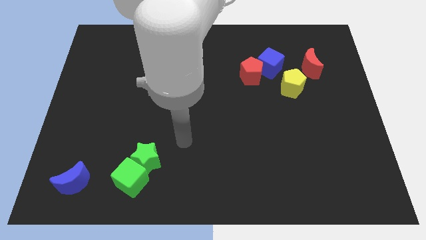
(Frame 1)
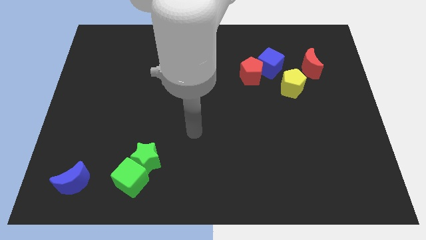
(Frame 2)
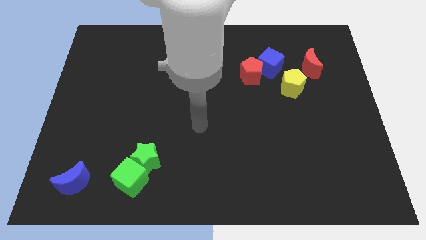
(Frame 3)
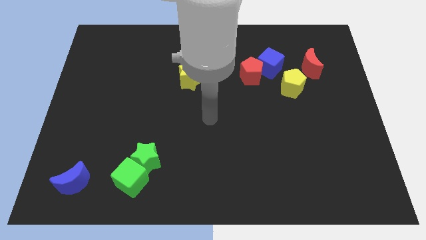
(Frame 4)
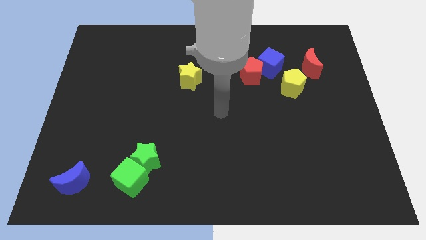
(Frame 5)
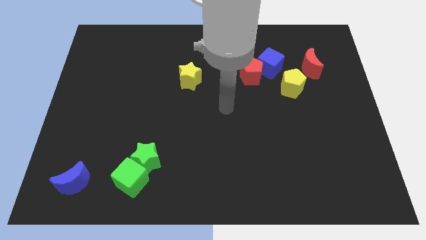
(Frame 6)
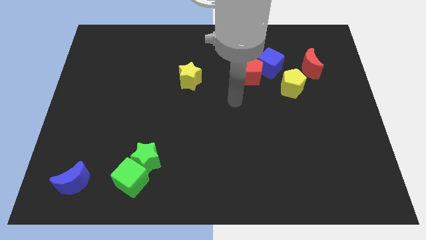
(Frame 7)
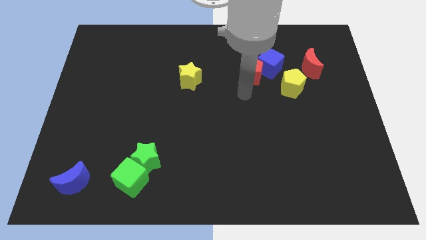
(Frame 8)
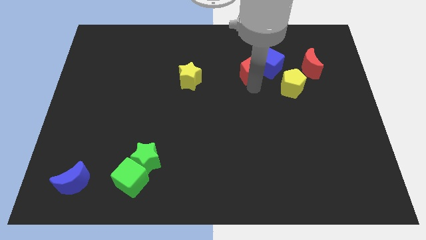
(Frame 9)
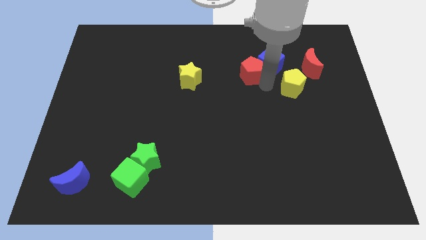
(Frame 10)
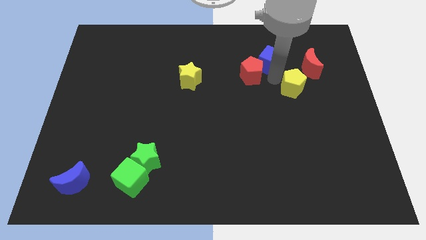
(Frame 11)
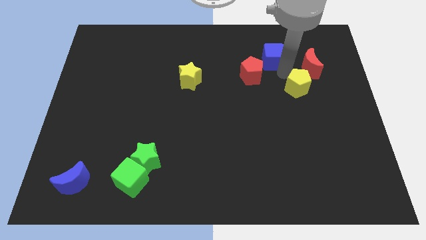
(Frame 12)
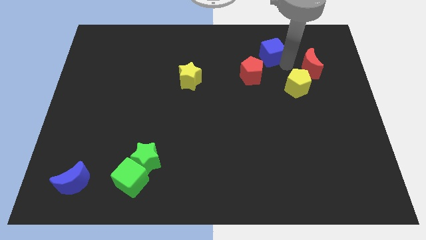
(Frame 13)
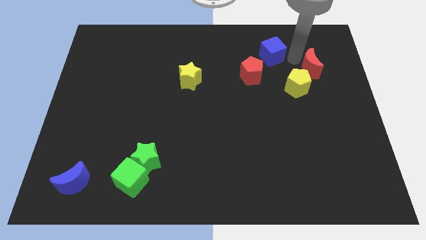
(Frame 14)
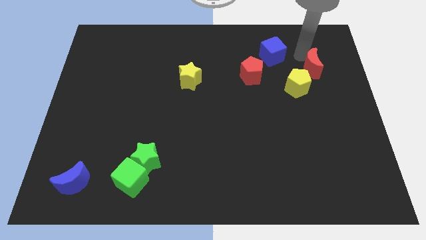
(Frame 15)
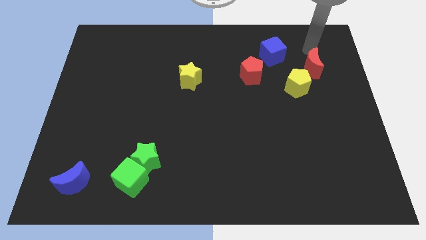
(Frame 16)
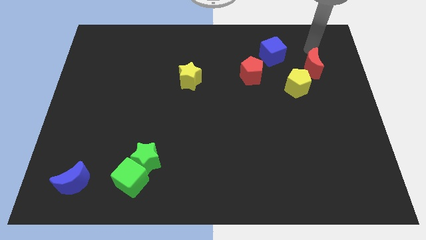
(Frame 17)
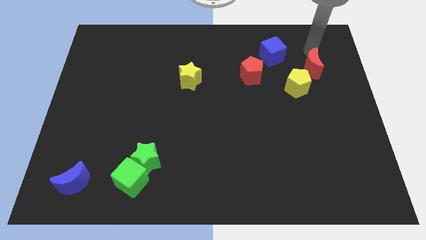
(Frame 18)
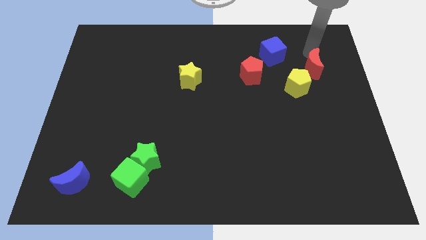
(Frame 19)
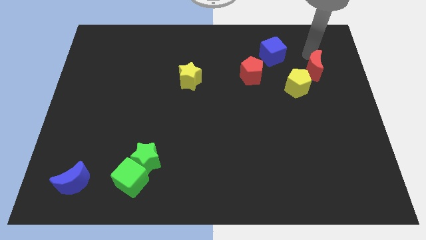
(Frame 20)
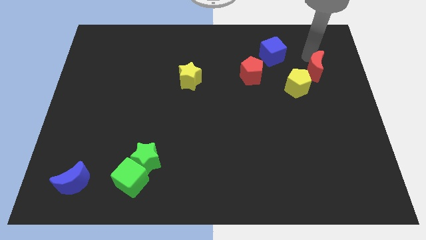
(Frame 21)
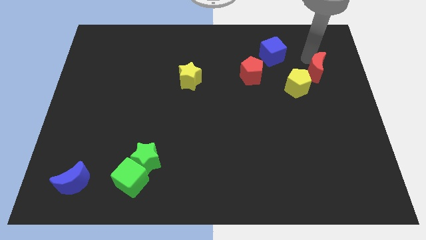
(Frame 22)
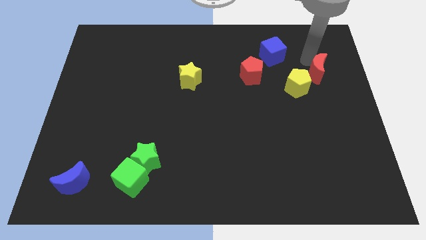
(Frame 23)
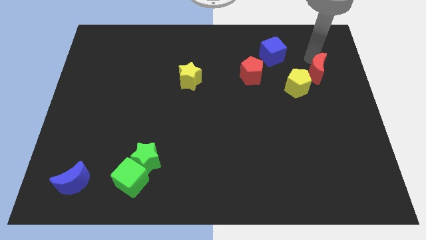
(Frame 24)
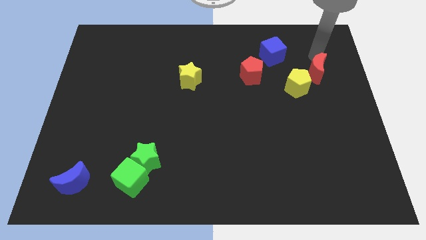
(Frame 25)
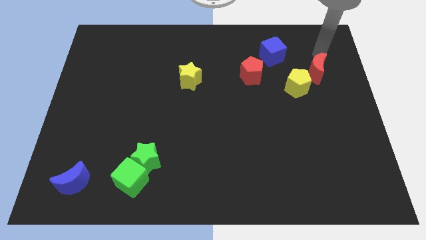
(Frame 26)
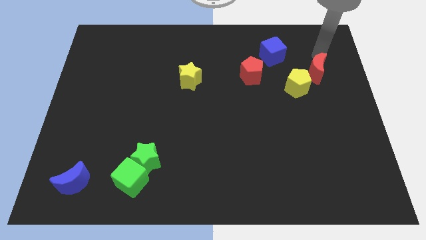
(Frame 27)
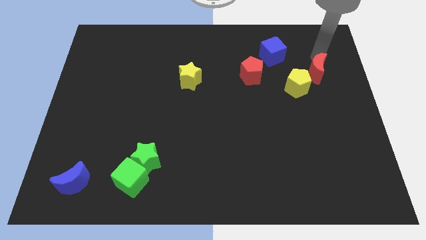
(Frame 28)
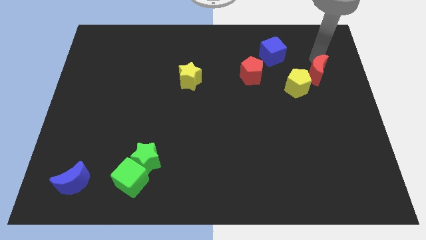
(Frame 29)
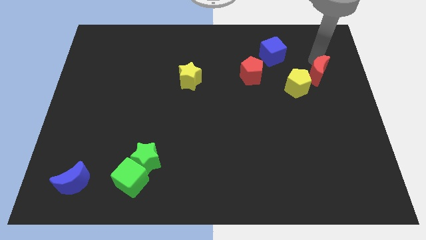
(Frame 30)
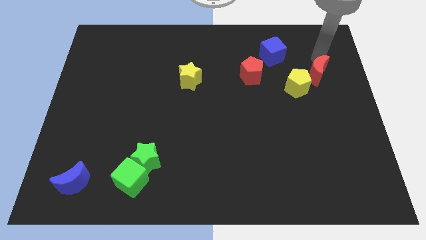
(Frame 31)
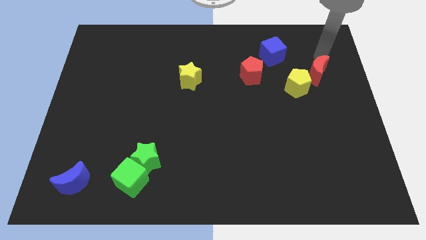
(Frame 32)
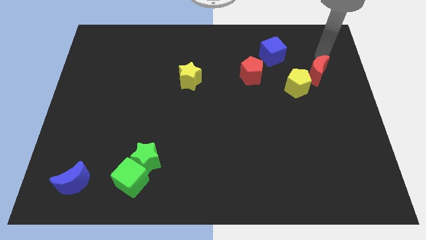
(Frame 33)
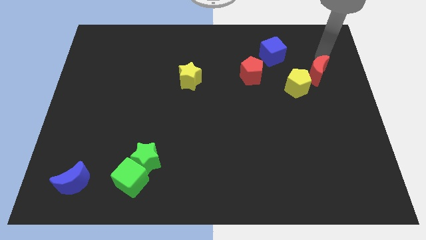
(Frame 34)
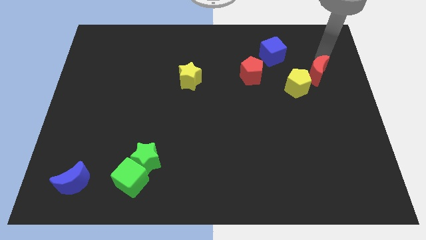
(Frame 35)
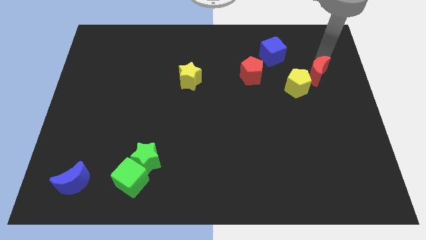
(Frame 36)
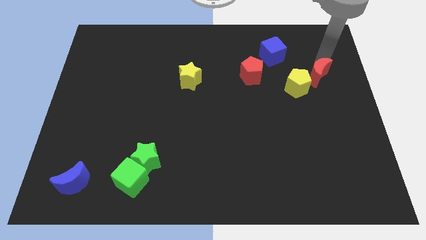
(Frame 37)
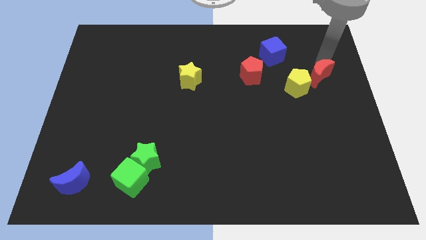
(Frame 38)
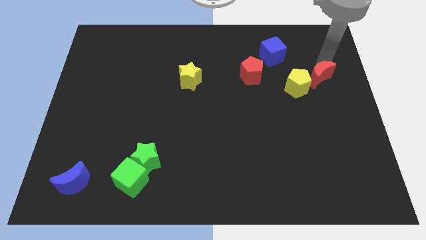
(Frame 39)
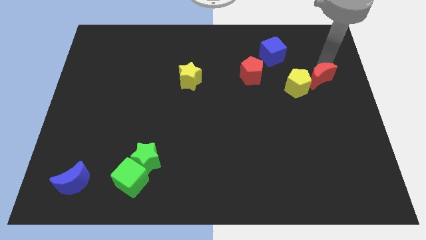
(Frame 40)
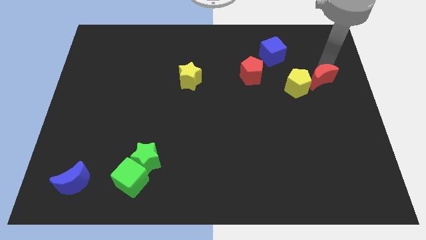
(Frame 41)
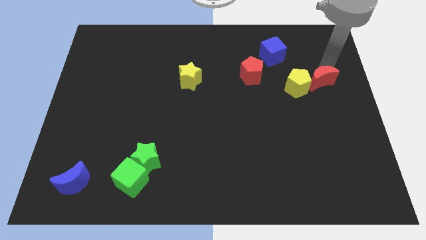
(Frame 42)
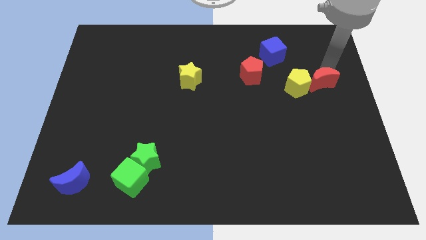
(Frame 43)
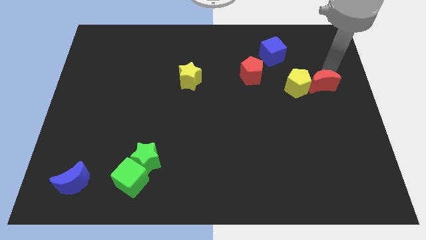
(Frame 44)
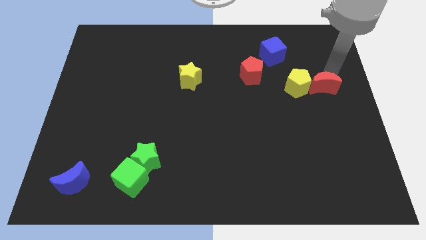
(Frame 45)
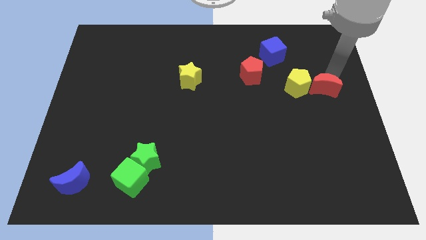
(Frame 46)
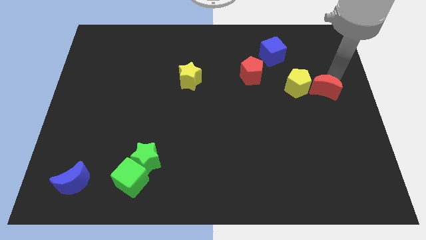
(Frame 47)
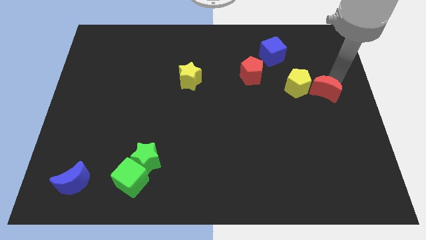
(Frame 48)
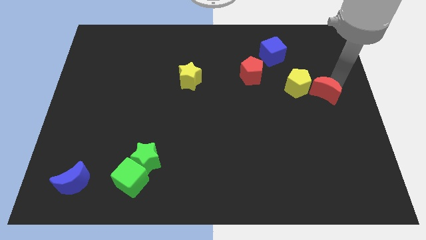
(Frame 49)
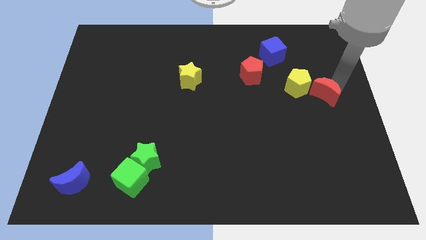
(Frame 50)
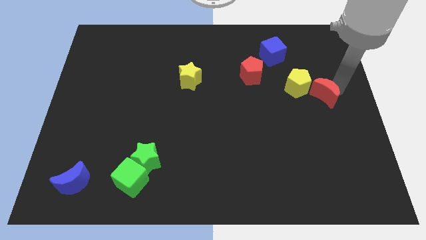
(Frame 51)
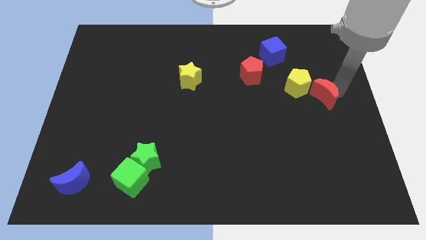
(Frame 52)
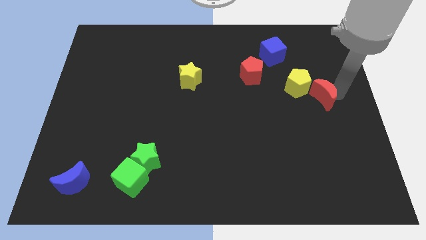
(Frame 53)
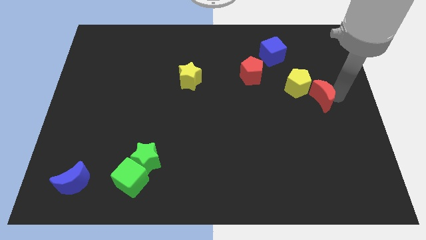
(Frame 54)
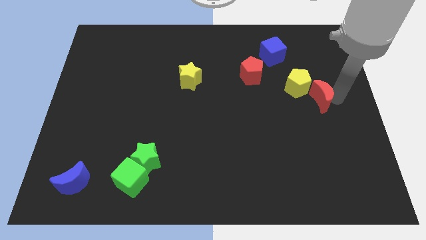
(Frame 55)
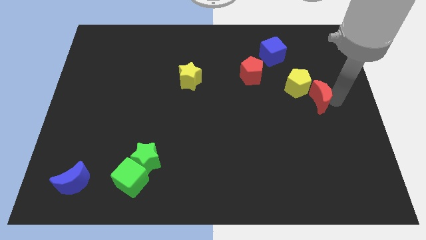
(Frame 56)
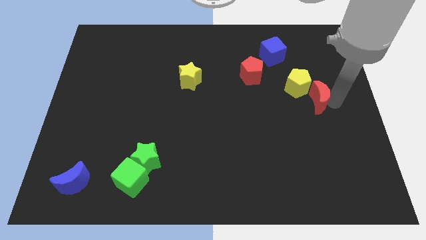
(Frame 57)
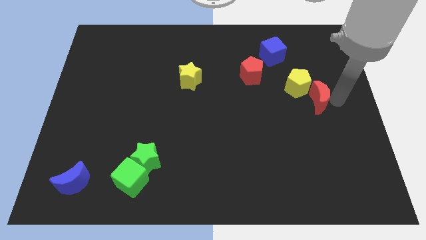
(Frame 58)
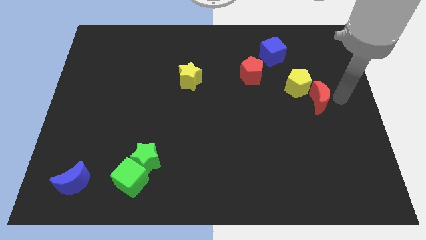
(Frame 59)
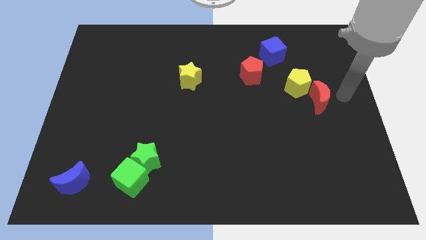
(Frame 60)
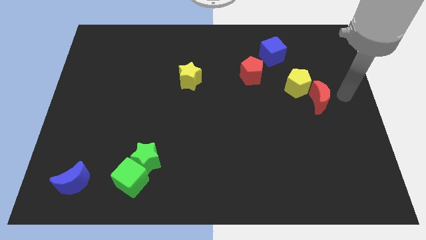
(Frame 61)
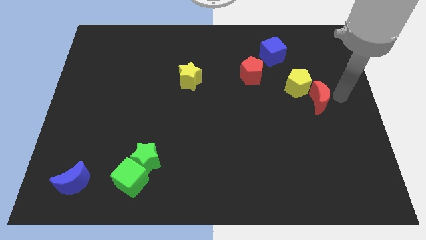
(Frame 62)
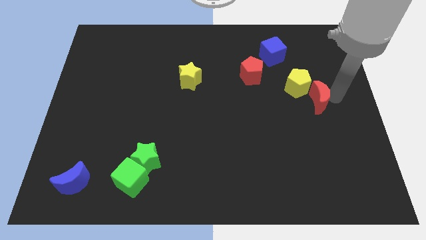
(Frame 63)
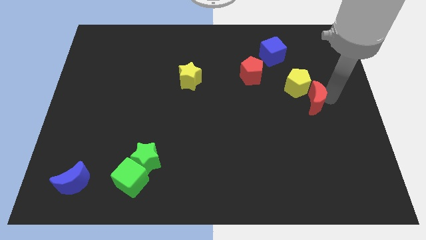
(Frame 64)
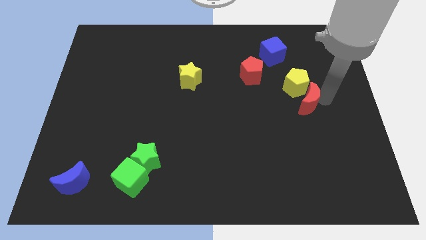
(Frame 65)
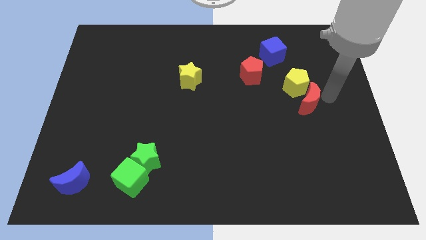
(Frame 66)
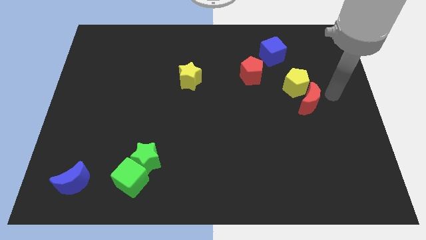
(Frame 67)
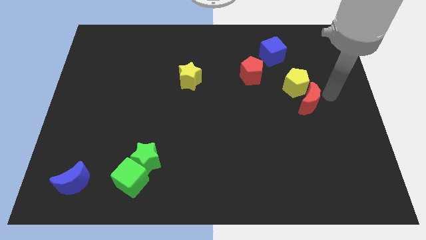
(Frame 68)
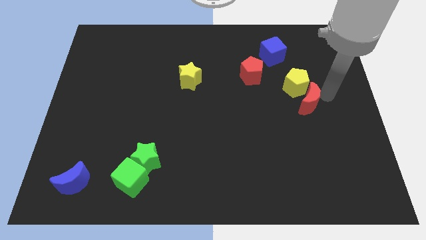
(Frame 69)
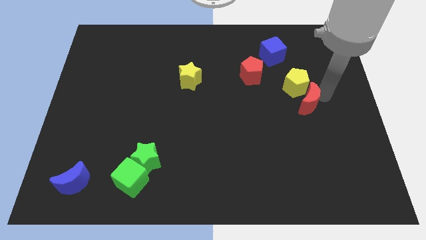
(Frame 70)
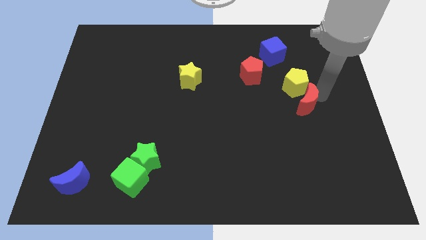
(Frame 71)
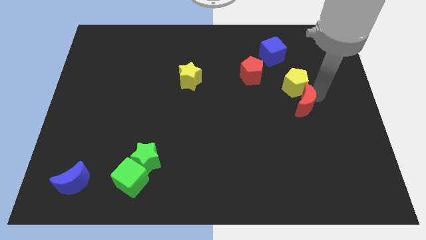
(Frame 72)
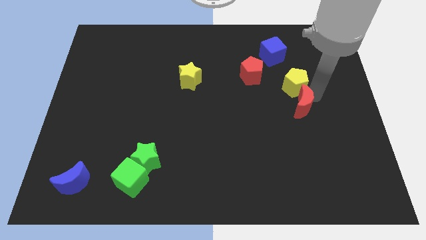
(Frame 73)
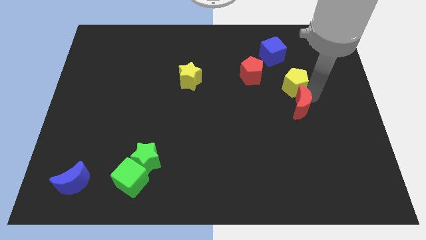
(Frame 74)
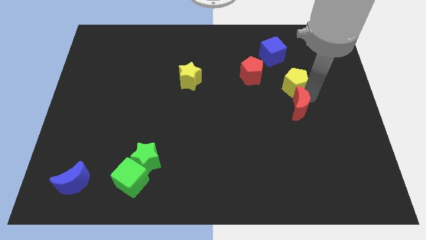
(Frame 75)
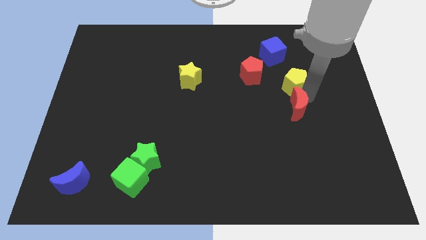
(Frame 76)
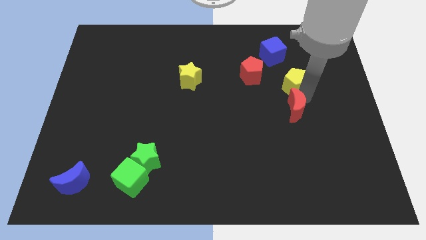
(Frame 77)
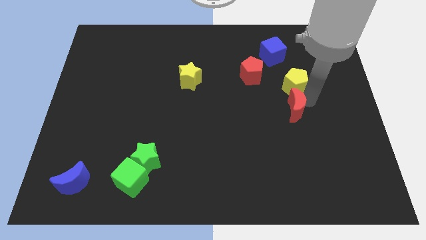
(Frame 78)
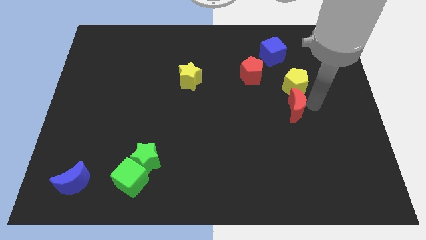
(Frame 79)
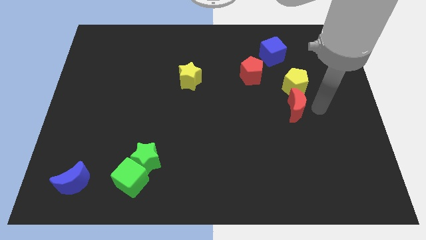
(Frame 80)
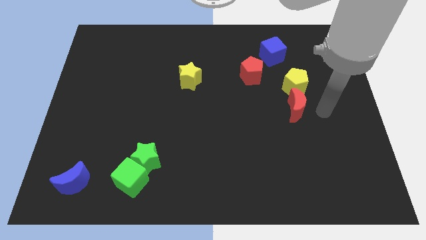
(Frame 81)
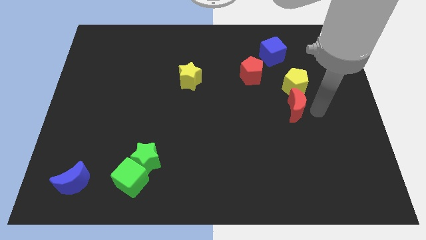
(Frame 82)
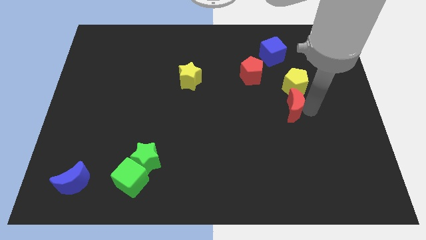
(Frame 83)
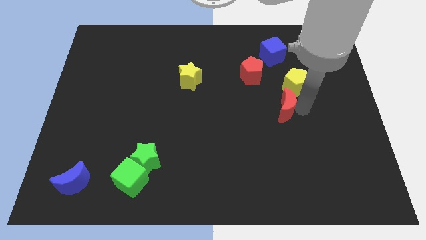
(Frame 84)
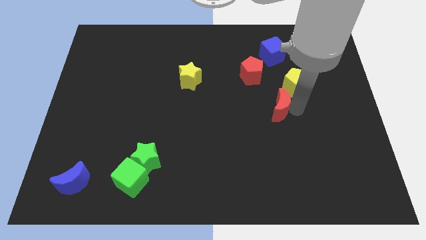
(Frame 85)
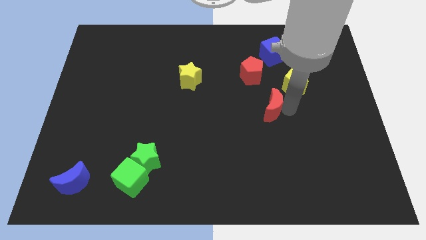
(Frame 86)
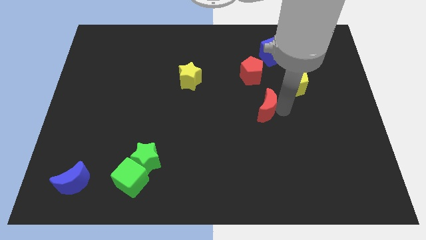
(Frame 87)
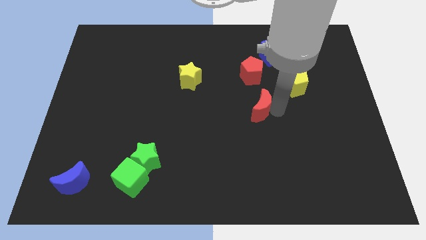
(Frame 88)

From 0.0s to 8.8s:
move the red moon to the middle
